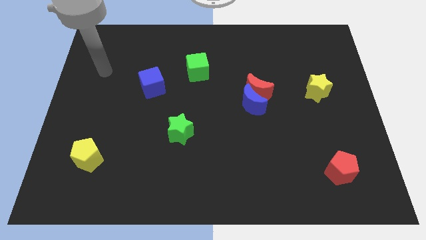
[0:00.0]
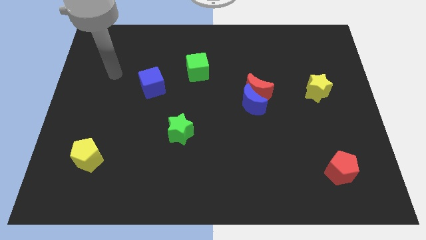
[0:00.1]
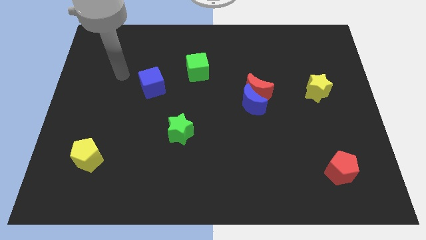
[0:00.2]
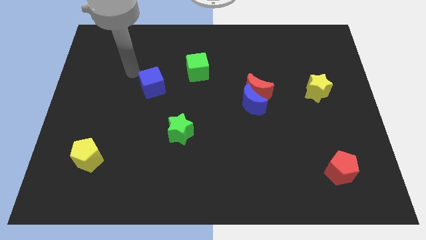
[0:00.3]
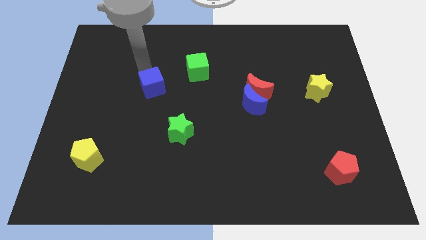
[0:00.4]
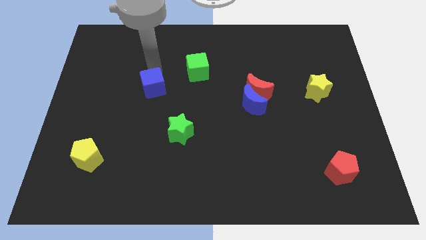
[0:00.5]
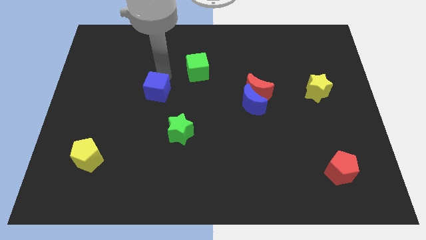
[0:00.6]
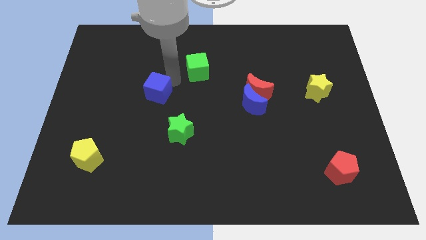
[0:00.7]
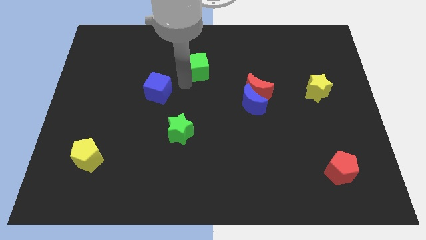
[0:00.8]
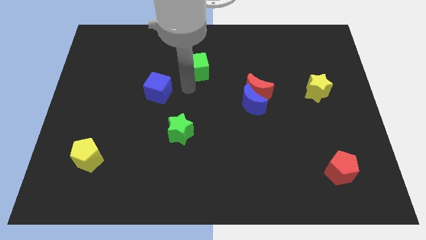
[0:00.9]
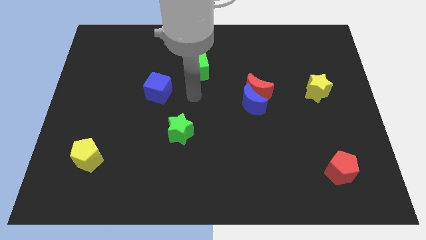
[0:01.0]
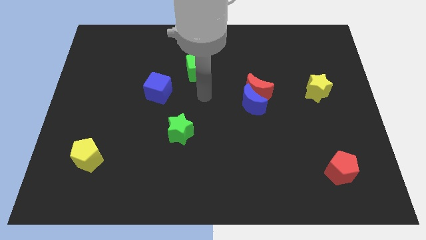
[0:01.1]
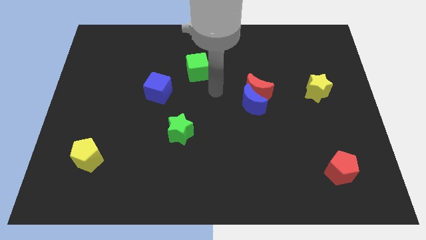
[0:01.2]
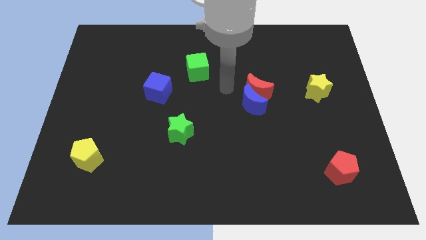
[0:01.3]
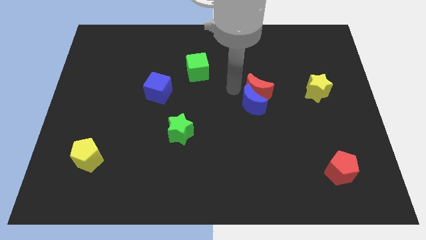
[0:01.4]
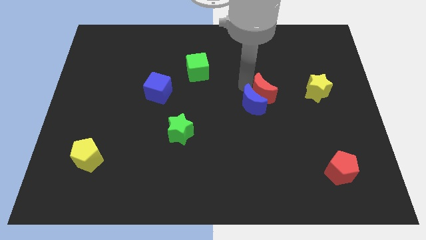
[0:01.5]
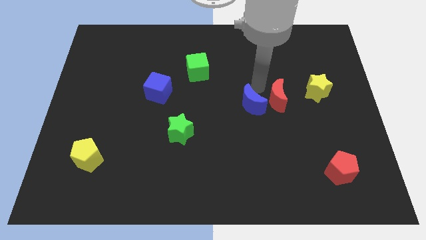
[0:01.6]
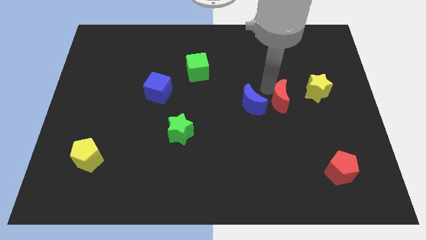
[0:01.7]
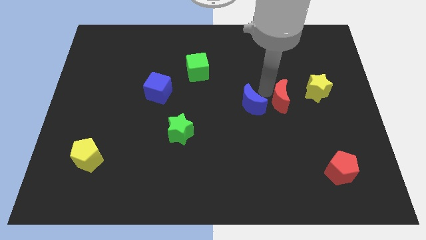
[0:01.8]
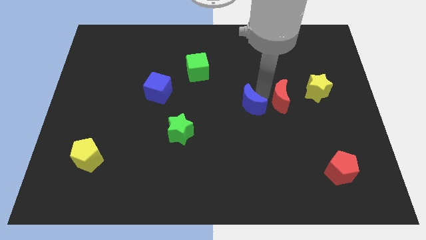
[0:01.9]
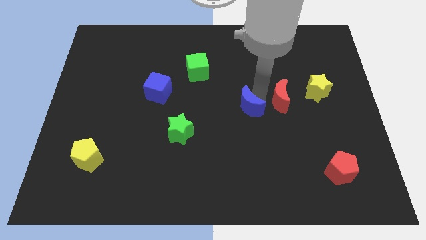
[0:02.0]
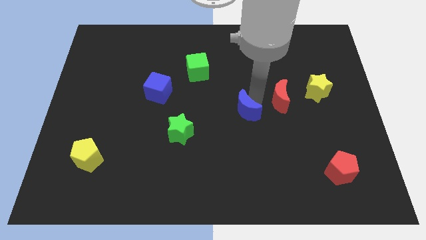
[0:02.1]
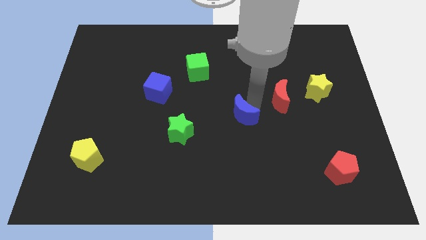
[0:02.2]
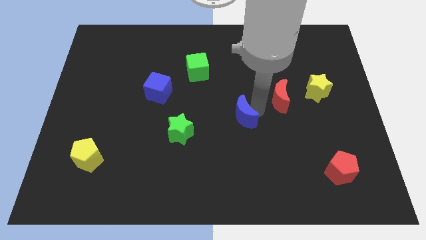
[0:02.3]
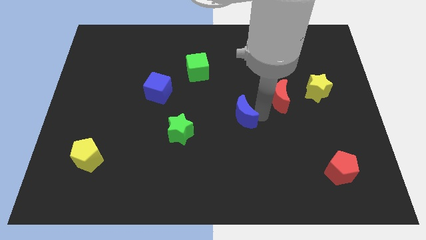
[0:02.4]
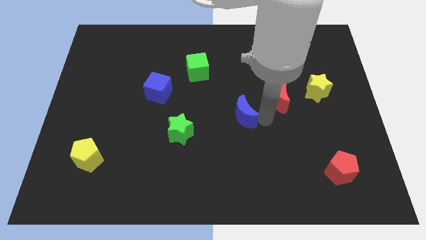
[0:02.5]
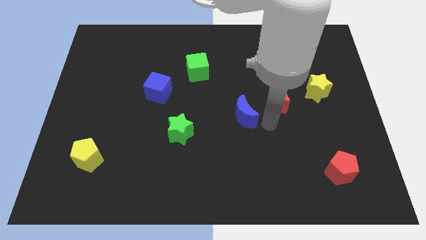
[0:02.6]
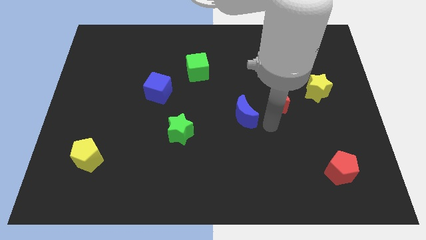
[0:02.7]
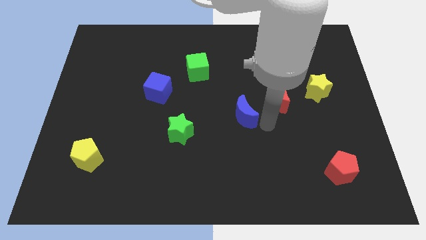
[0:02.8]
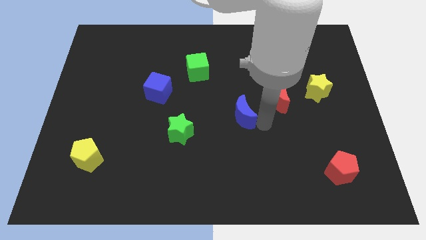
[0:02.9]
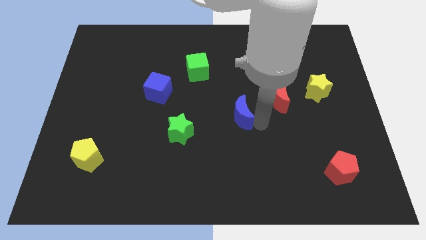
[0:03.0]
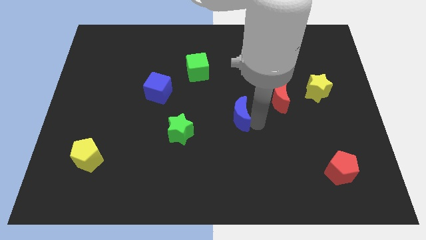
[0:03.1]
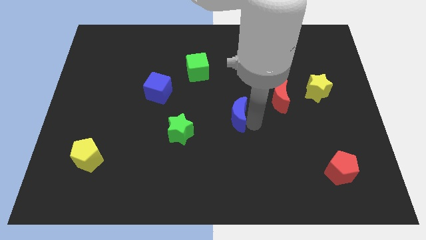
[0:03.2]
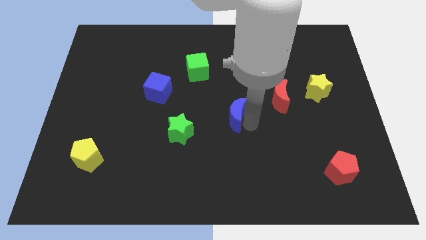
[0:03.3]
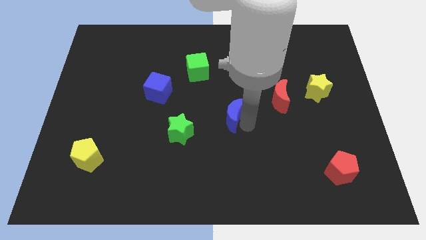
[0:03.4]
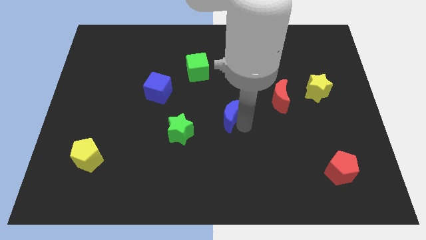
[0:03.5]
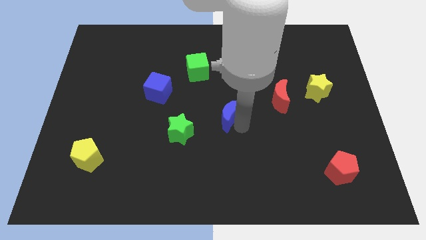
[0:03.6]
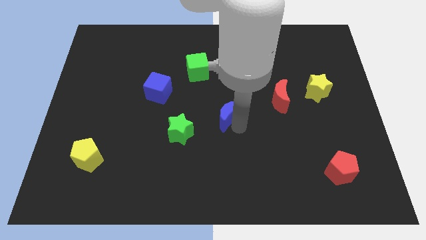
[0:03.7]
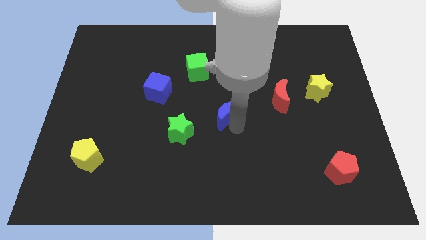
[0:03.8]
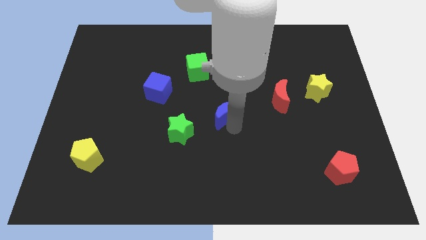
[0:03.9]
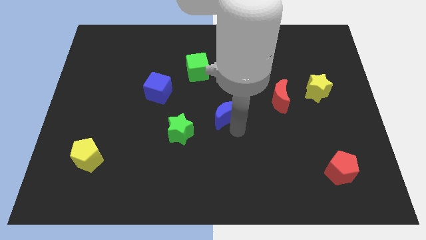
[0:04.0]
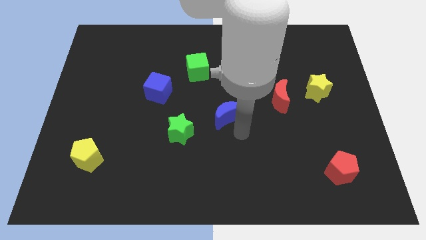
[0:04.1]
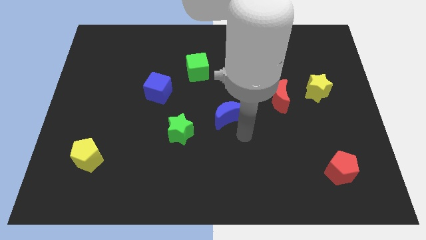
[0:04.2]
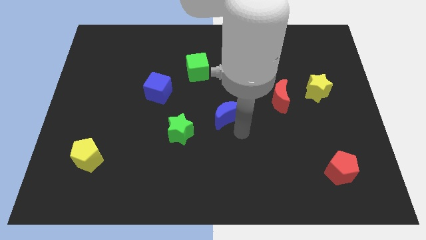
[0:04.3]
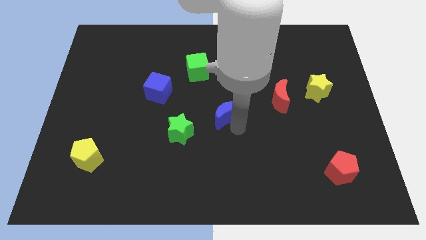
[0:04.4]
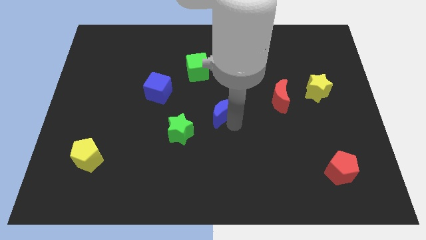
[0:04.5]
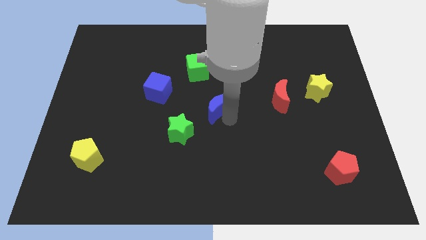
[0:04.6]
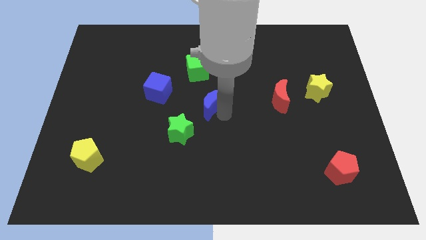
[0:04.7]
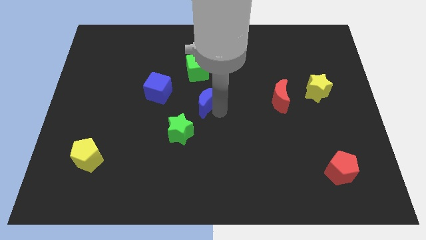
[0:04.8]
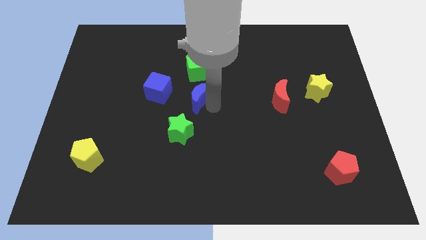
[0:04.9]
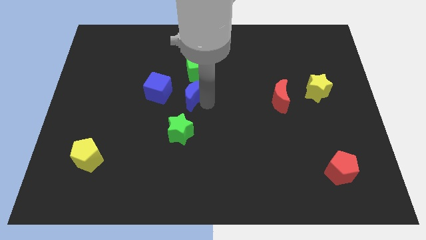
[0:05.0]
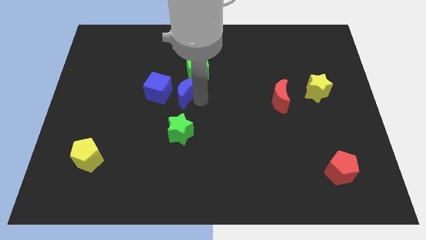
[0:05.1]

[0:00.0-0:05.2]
slide the blue moon to the bottom left of the green cube

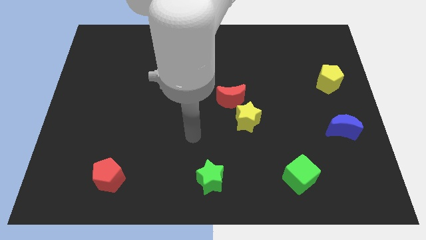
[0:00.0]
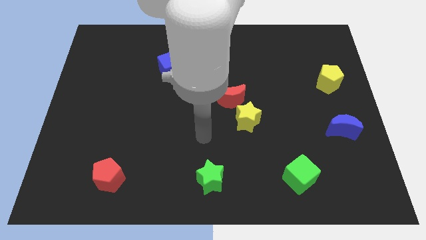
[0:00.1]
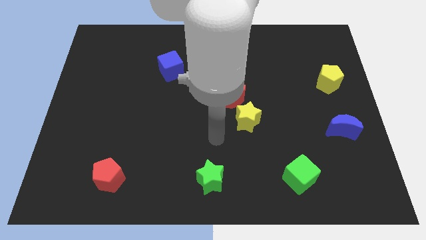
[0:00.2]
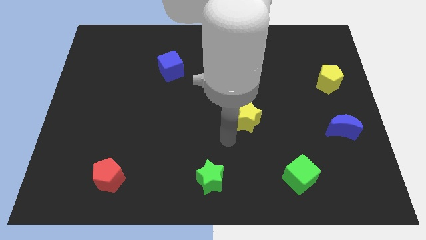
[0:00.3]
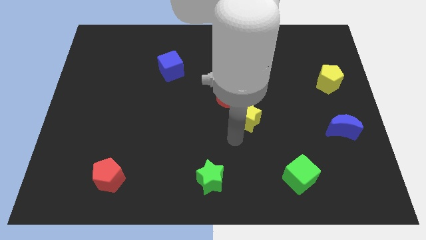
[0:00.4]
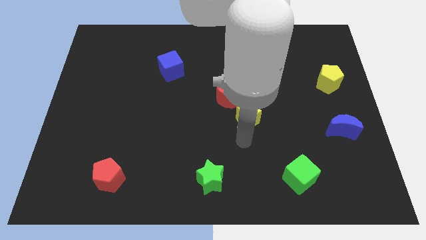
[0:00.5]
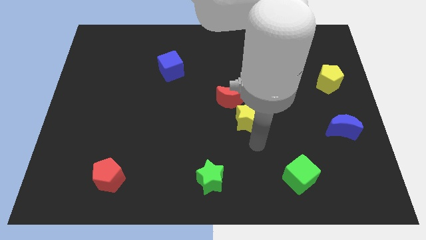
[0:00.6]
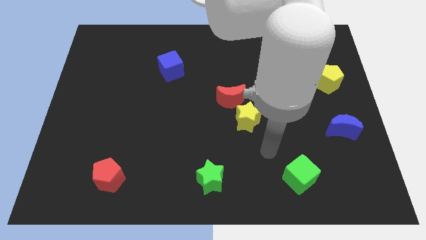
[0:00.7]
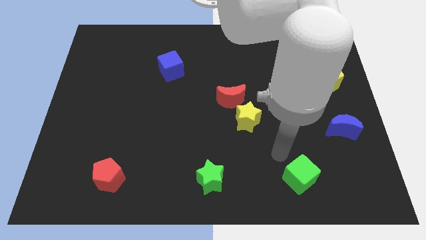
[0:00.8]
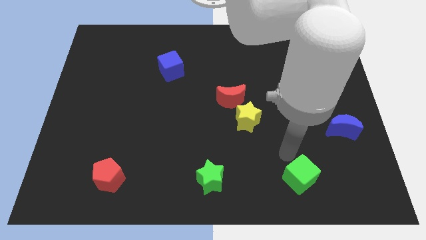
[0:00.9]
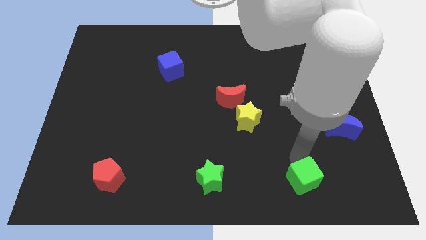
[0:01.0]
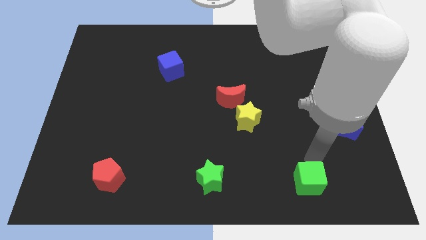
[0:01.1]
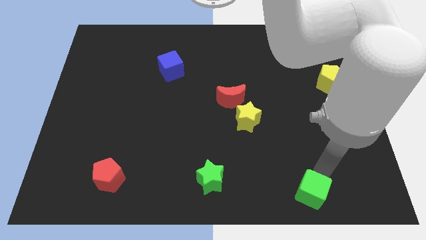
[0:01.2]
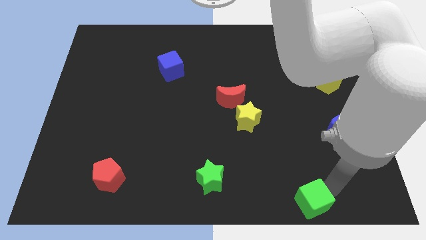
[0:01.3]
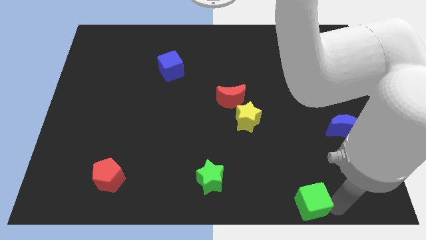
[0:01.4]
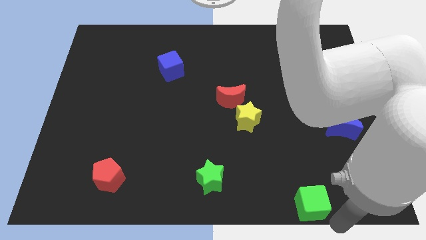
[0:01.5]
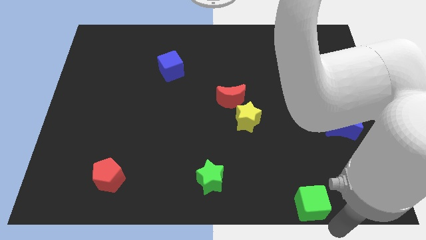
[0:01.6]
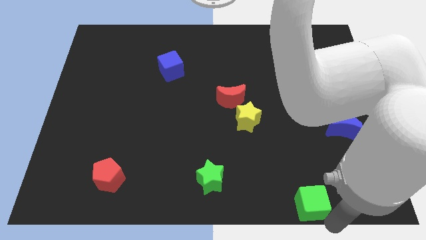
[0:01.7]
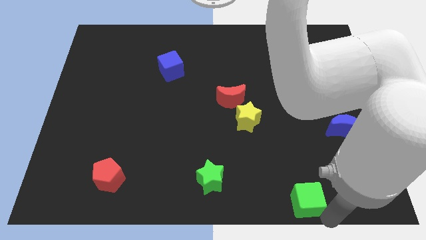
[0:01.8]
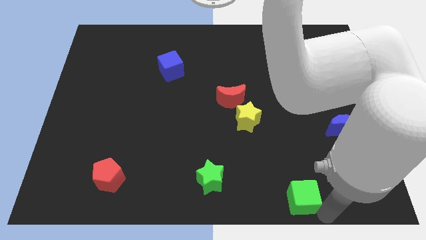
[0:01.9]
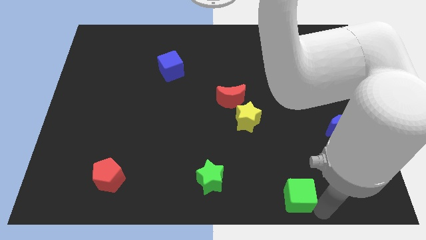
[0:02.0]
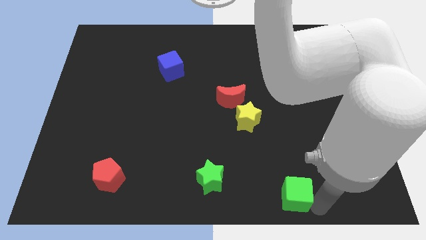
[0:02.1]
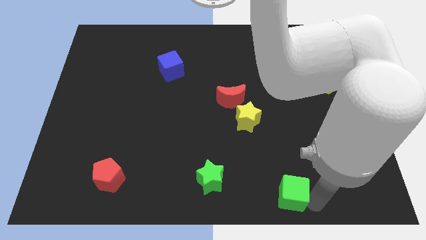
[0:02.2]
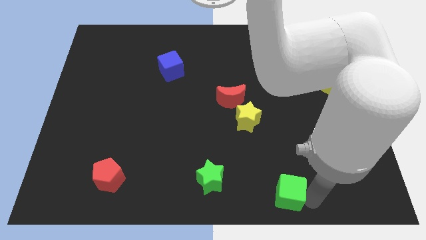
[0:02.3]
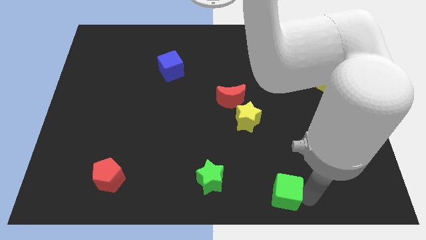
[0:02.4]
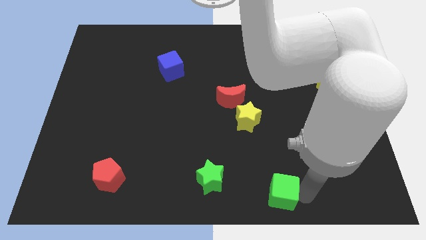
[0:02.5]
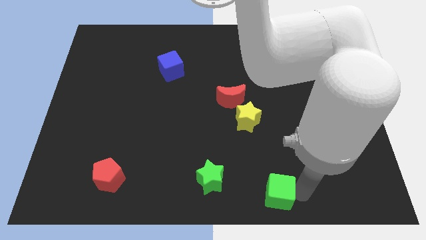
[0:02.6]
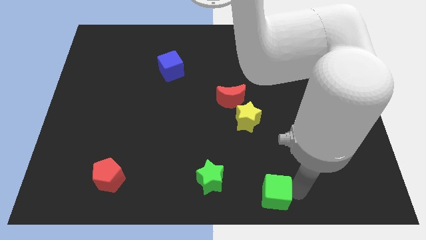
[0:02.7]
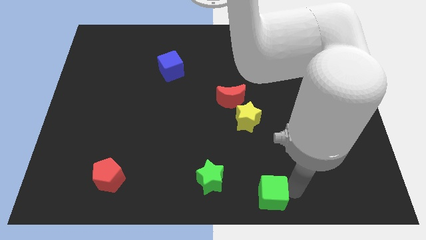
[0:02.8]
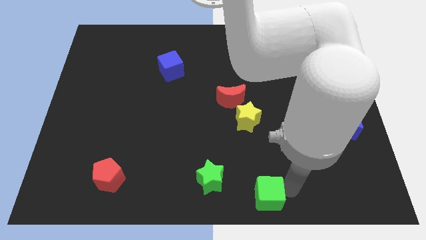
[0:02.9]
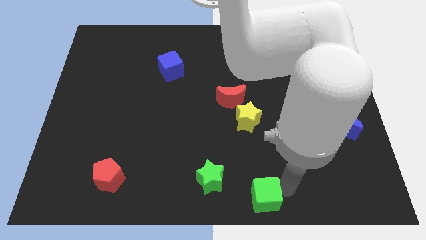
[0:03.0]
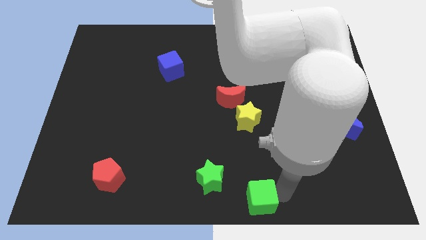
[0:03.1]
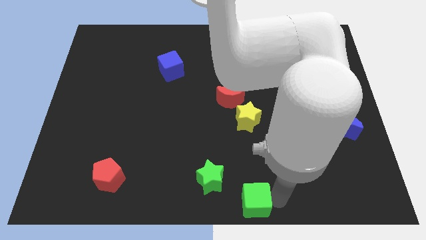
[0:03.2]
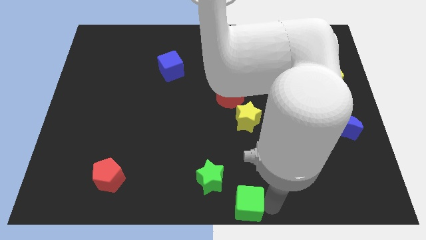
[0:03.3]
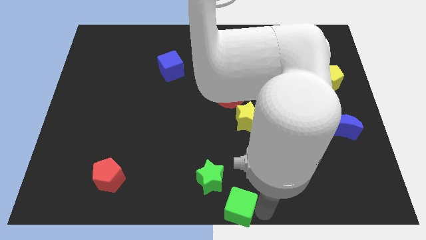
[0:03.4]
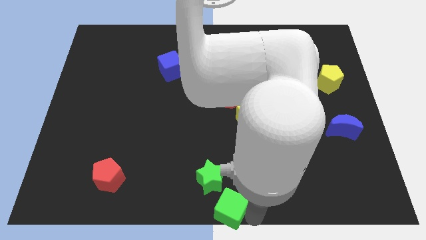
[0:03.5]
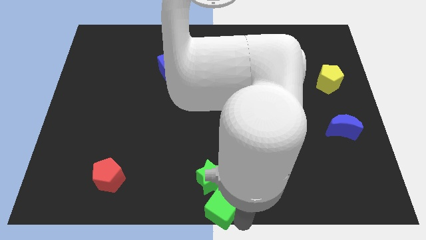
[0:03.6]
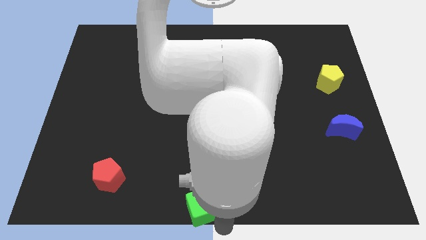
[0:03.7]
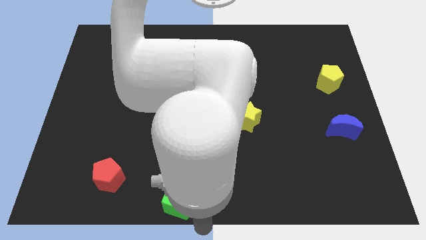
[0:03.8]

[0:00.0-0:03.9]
push the green cube just left of the green star
